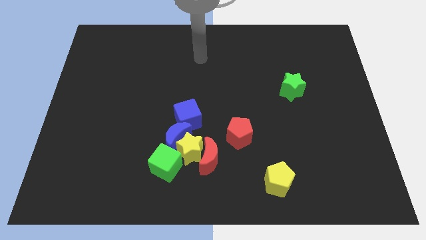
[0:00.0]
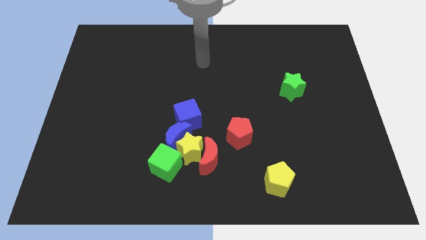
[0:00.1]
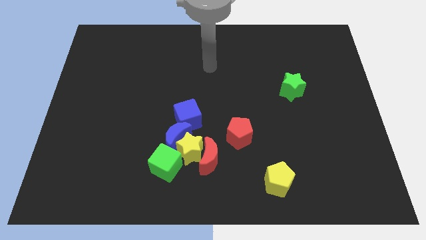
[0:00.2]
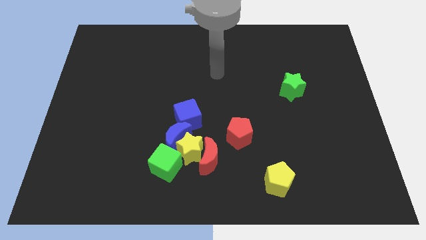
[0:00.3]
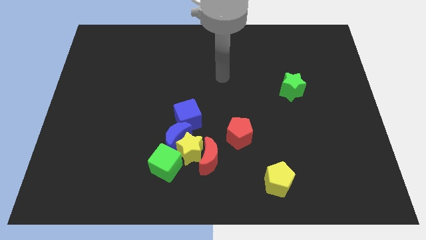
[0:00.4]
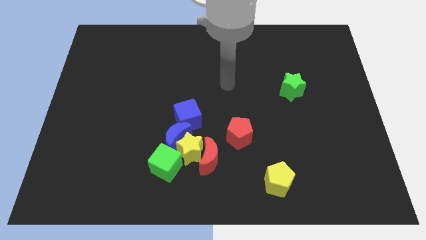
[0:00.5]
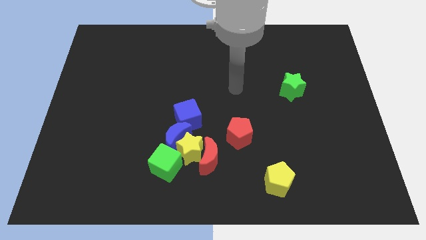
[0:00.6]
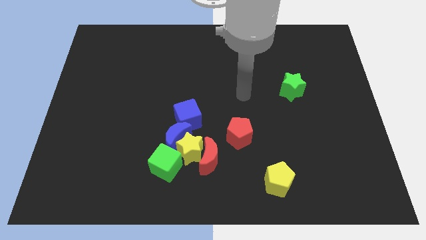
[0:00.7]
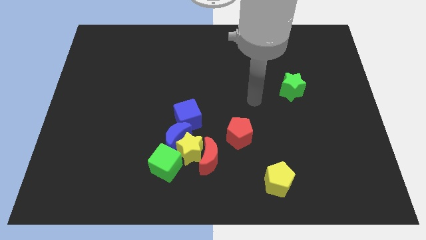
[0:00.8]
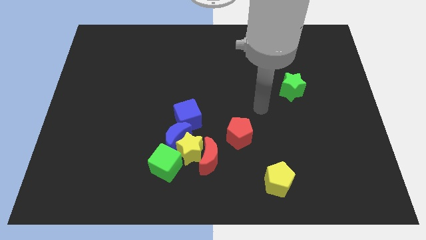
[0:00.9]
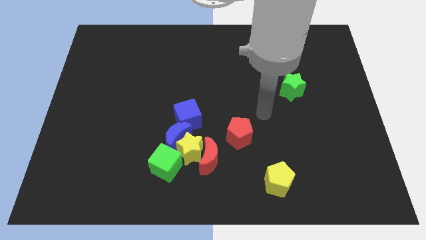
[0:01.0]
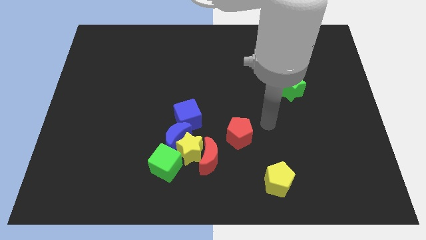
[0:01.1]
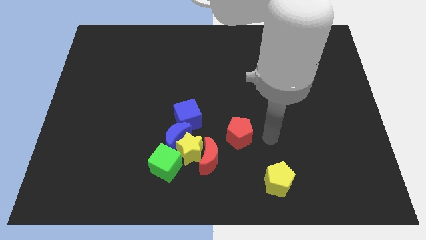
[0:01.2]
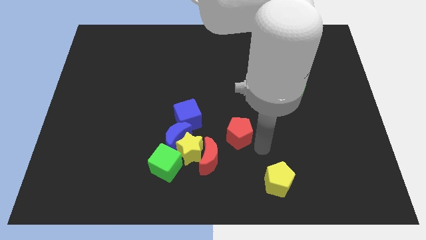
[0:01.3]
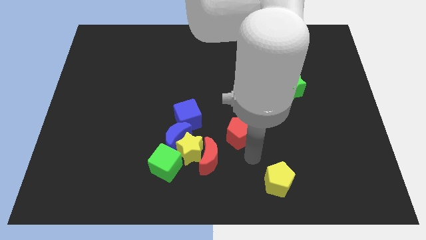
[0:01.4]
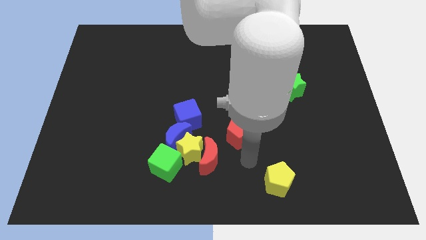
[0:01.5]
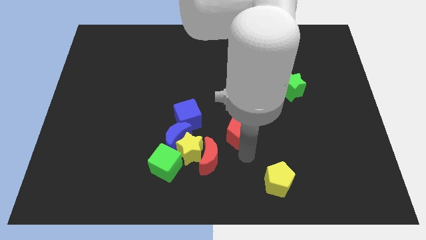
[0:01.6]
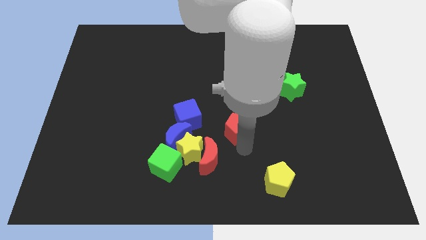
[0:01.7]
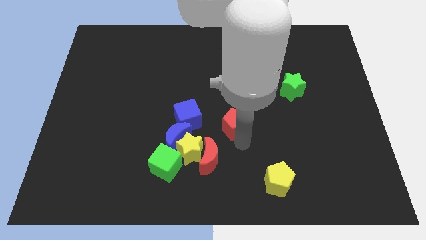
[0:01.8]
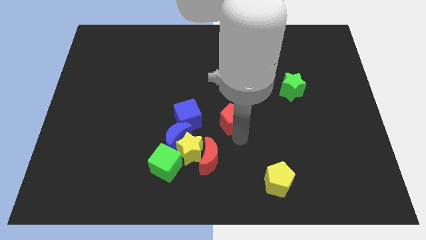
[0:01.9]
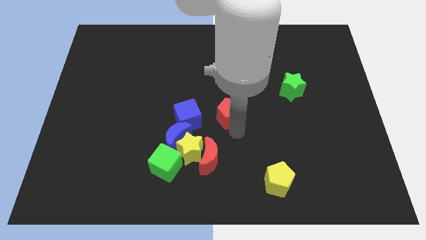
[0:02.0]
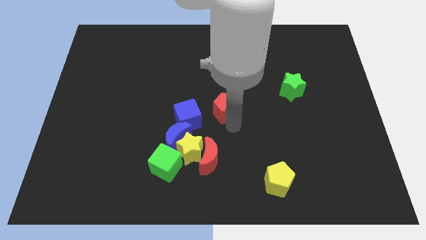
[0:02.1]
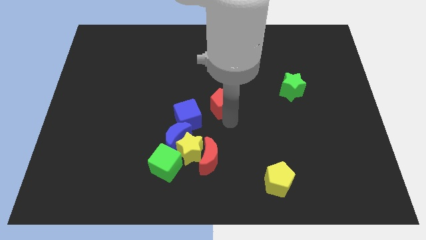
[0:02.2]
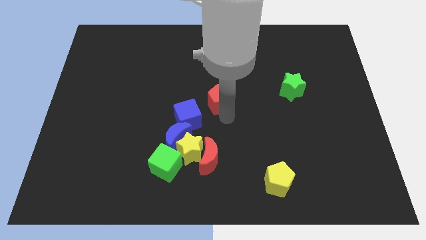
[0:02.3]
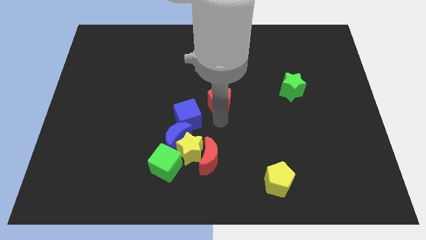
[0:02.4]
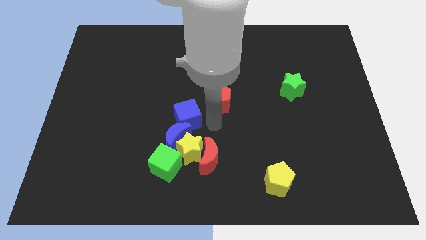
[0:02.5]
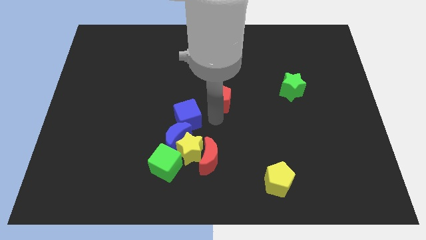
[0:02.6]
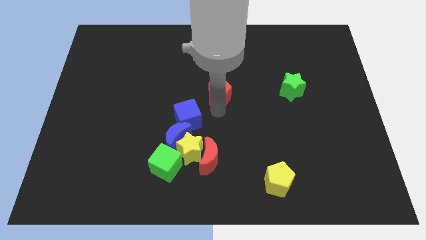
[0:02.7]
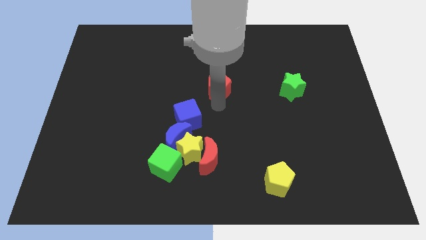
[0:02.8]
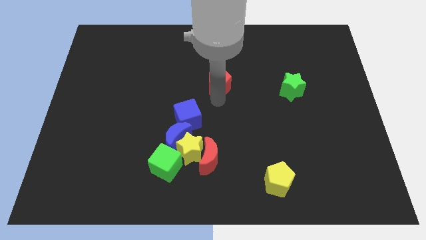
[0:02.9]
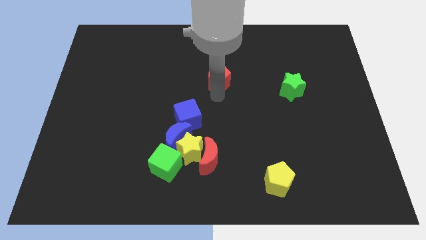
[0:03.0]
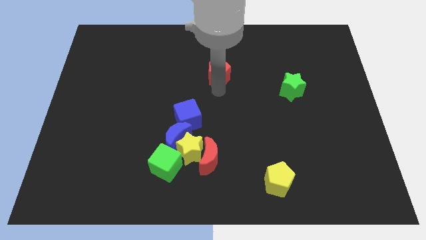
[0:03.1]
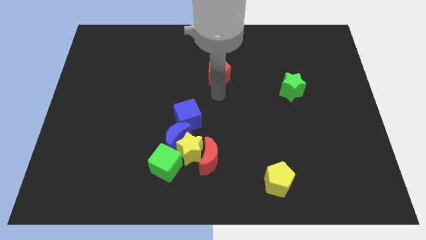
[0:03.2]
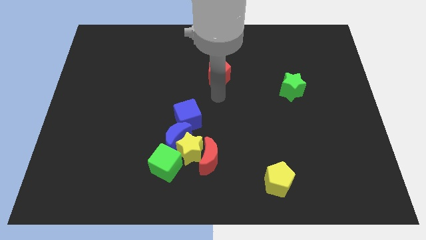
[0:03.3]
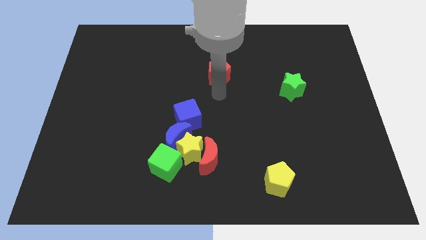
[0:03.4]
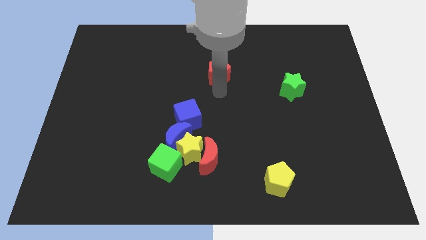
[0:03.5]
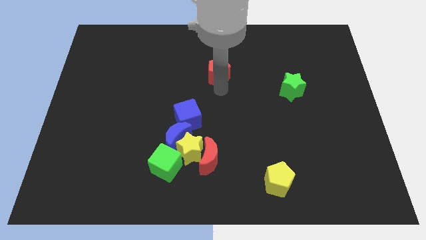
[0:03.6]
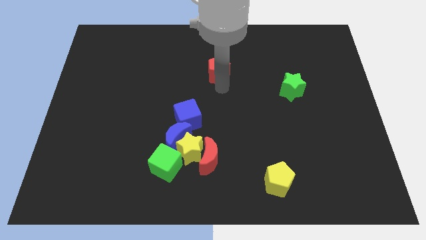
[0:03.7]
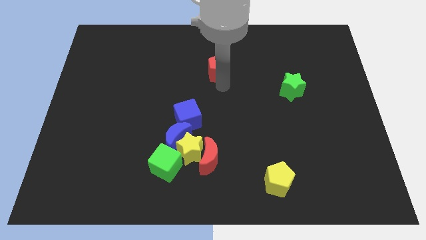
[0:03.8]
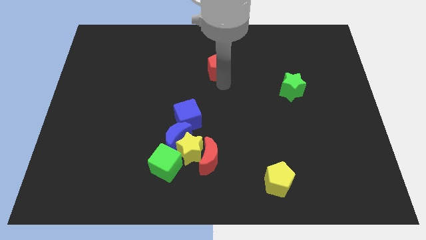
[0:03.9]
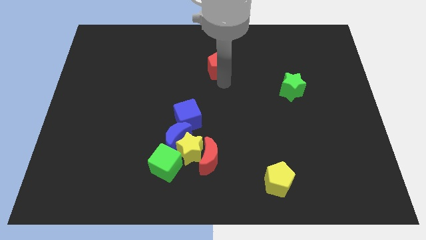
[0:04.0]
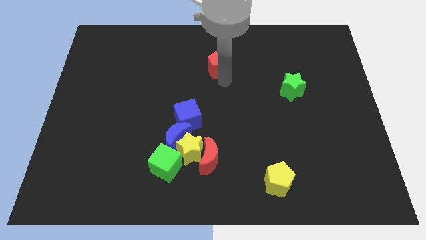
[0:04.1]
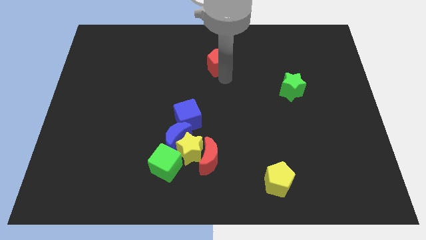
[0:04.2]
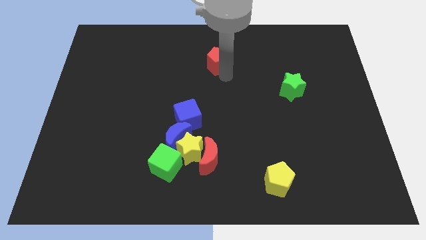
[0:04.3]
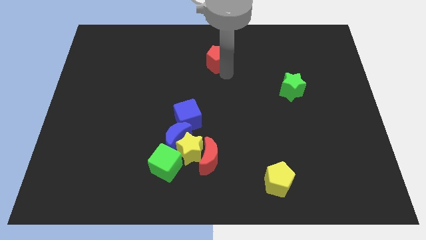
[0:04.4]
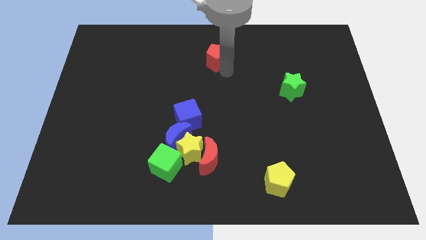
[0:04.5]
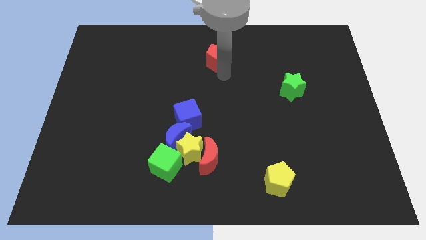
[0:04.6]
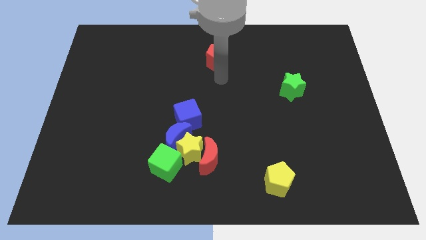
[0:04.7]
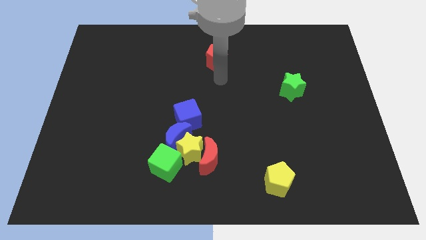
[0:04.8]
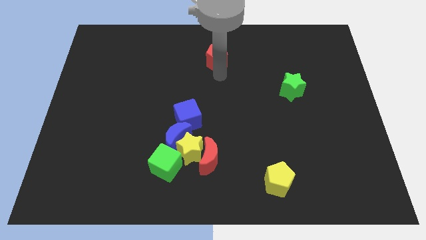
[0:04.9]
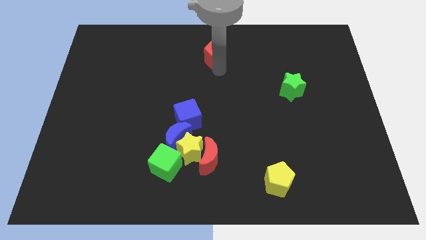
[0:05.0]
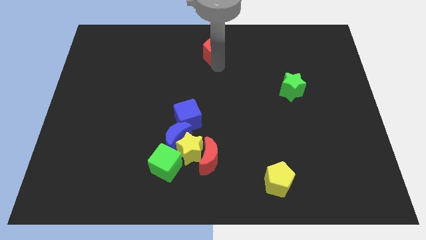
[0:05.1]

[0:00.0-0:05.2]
slide the red pentagon to the top
